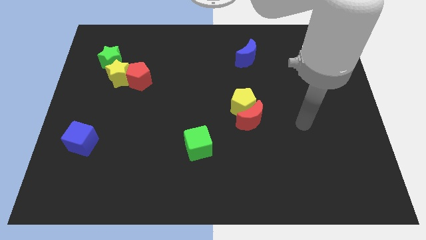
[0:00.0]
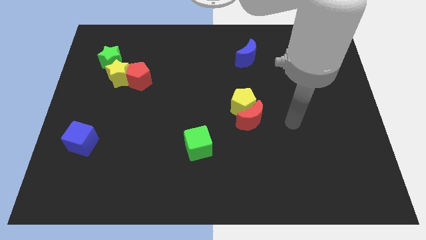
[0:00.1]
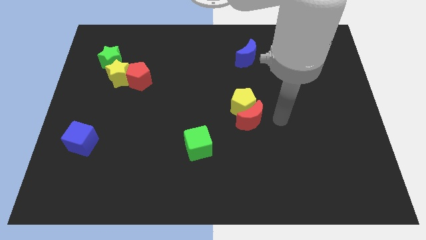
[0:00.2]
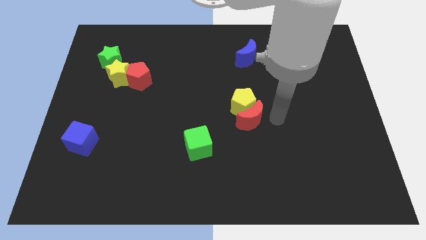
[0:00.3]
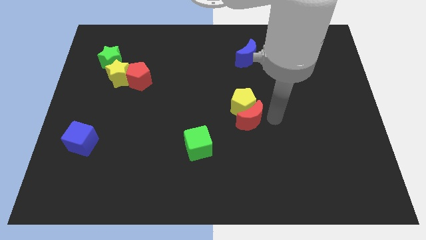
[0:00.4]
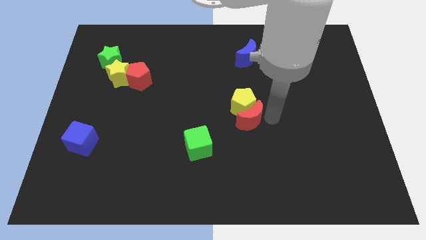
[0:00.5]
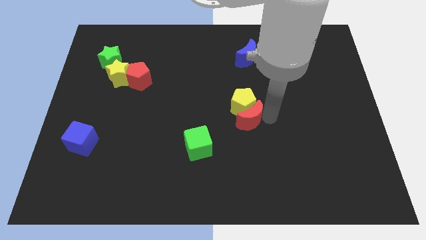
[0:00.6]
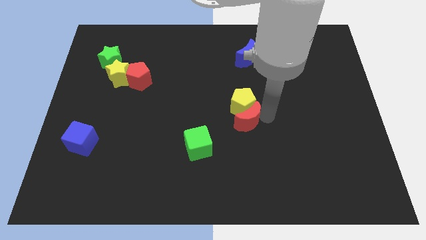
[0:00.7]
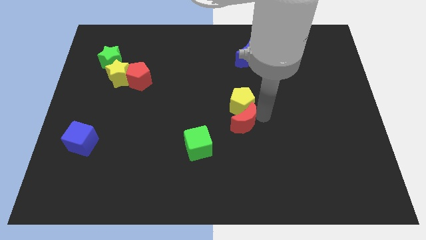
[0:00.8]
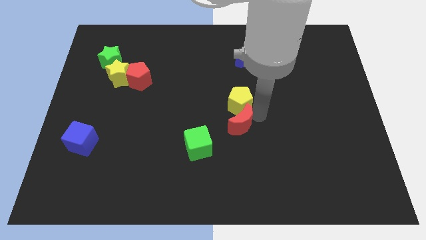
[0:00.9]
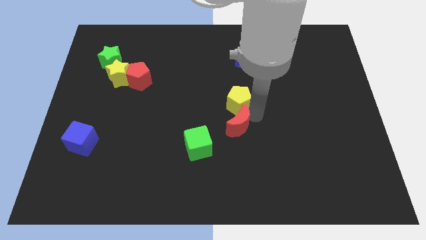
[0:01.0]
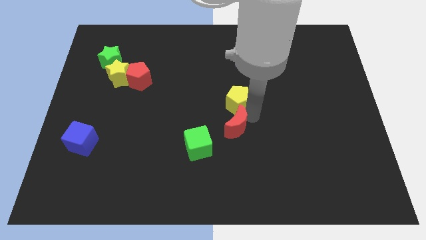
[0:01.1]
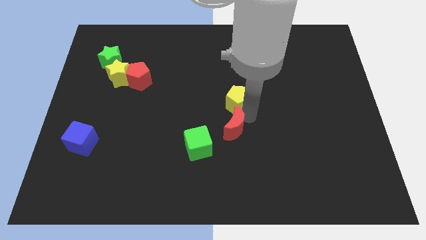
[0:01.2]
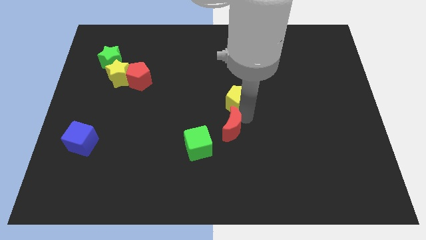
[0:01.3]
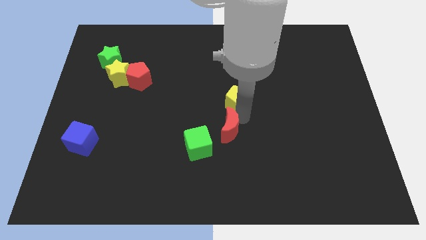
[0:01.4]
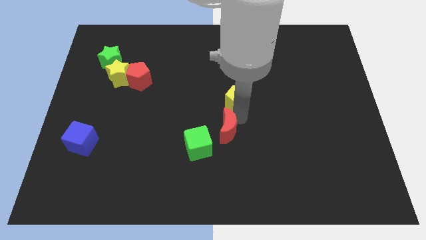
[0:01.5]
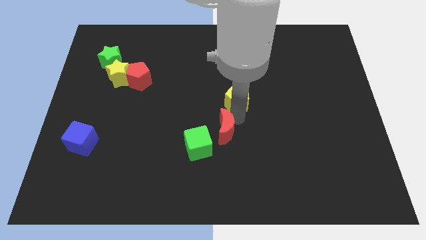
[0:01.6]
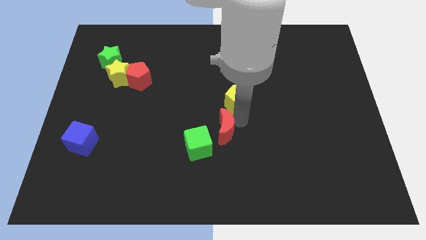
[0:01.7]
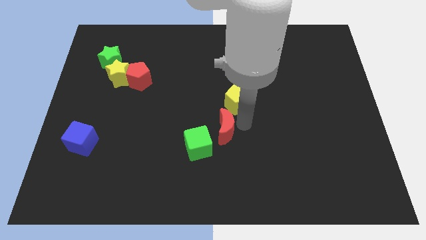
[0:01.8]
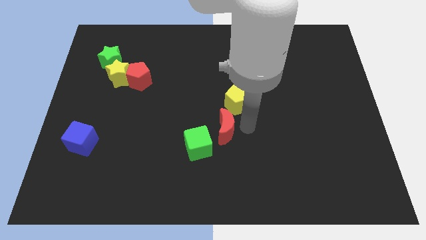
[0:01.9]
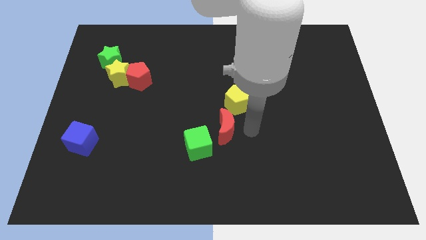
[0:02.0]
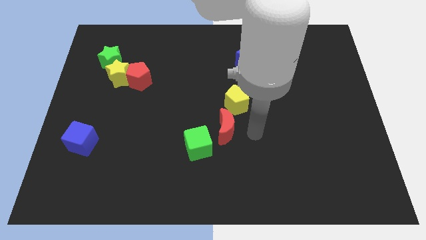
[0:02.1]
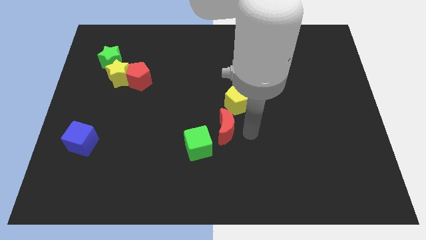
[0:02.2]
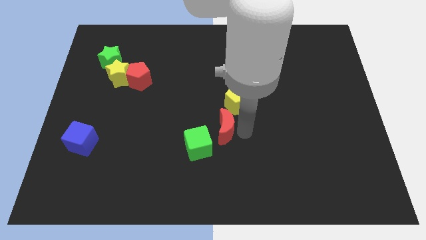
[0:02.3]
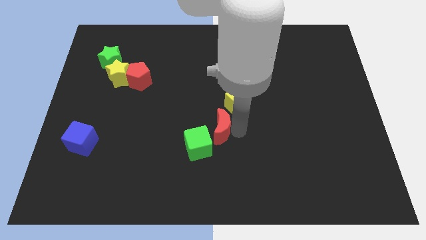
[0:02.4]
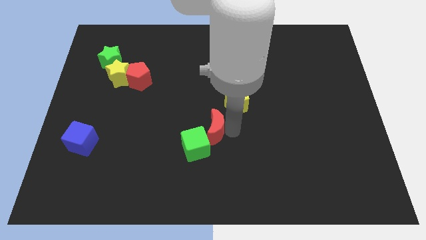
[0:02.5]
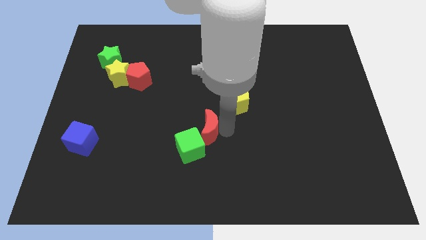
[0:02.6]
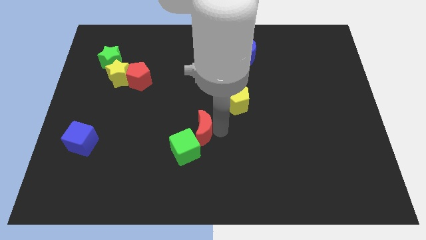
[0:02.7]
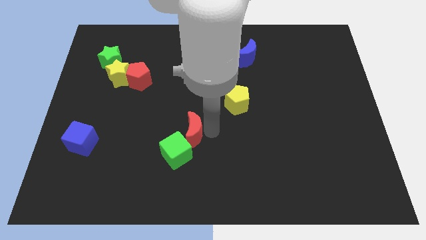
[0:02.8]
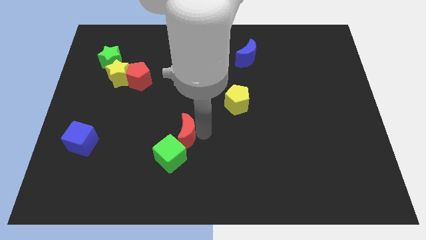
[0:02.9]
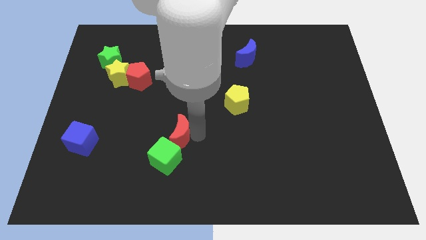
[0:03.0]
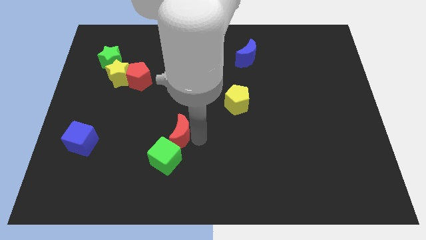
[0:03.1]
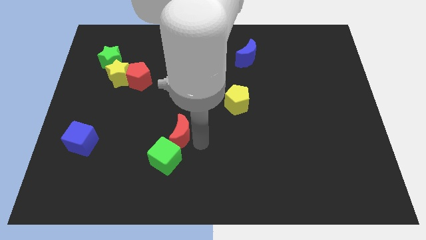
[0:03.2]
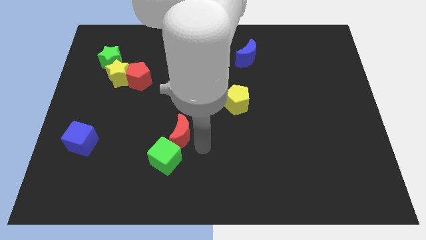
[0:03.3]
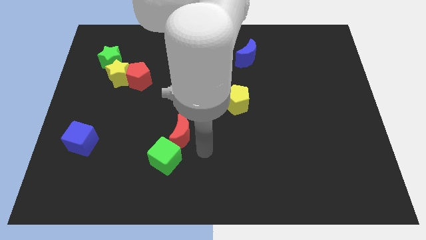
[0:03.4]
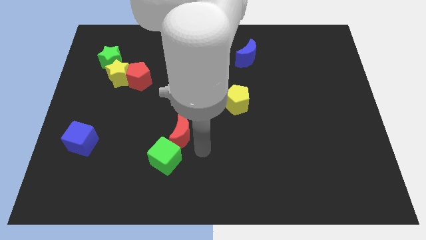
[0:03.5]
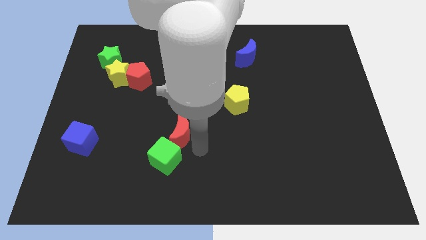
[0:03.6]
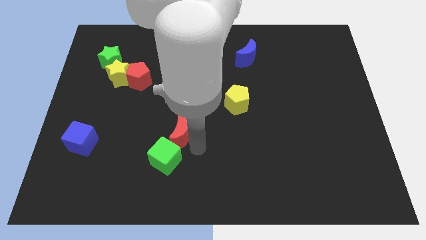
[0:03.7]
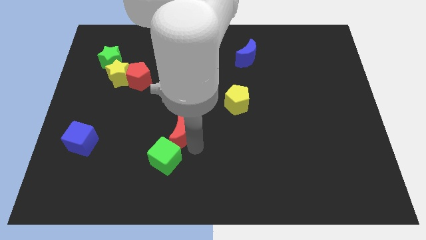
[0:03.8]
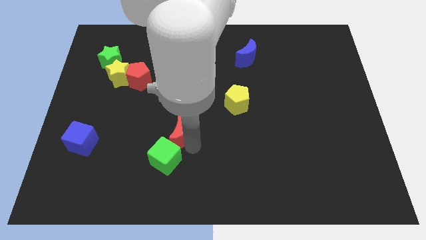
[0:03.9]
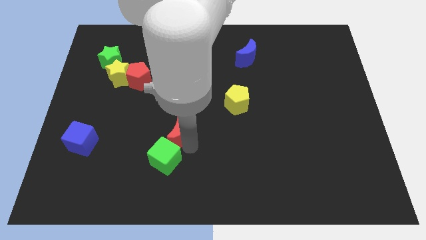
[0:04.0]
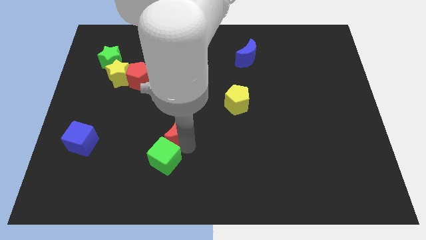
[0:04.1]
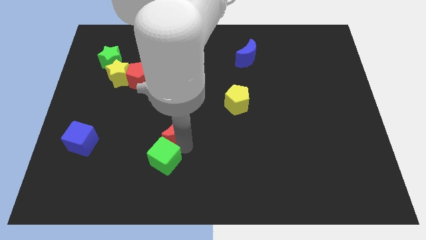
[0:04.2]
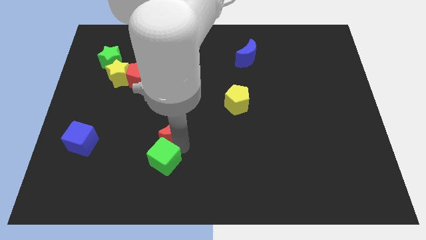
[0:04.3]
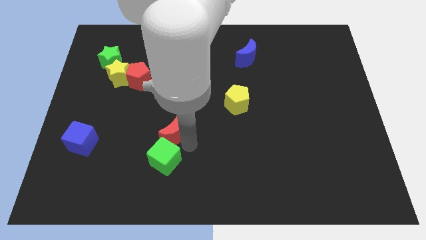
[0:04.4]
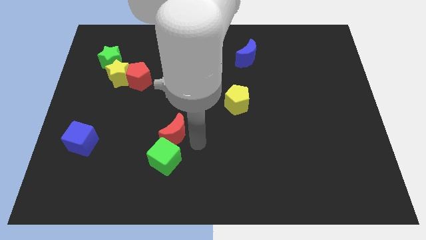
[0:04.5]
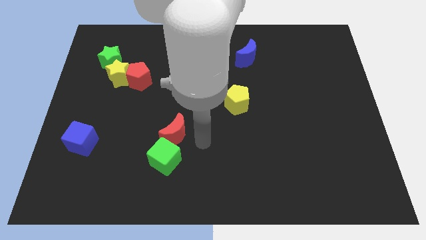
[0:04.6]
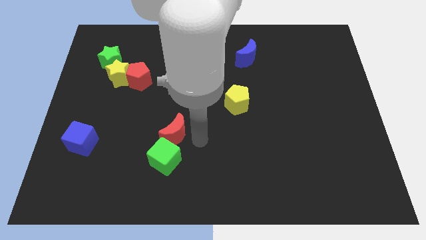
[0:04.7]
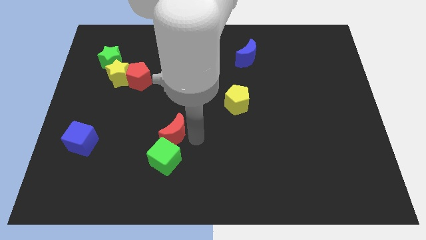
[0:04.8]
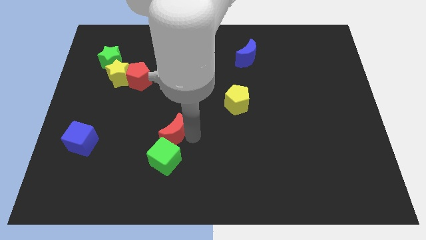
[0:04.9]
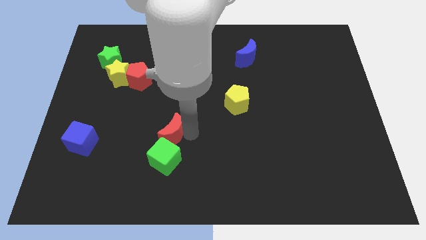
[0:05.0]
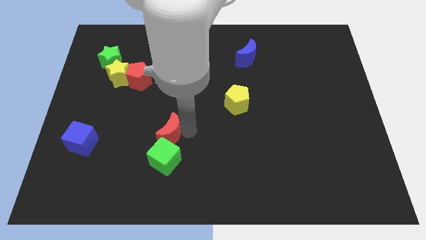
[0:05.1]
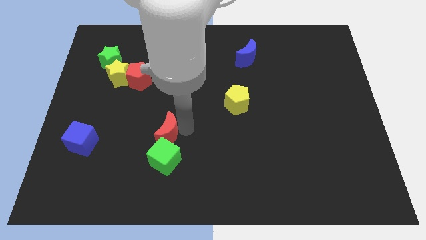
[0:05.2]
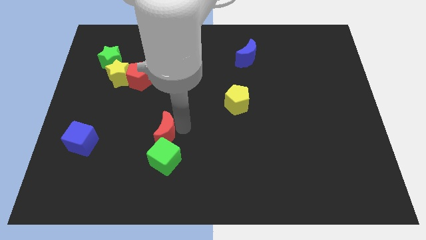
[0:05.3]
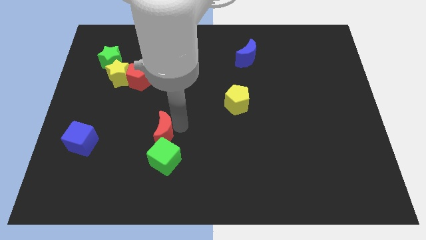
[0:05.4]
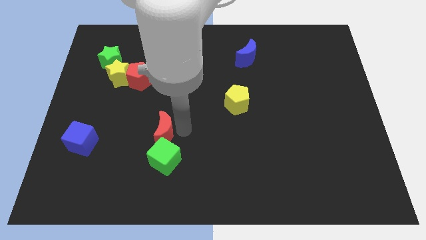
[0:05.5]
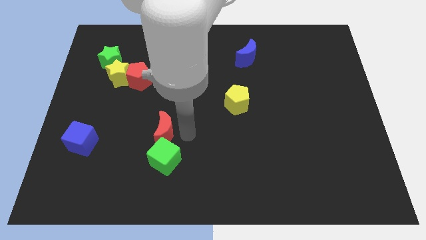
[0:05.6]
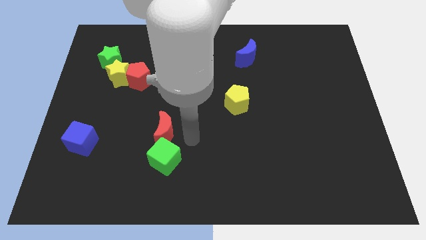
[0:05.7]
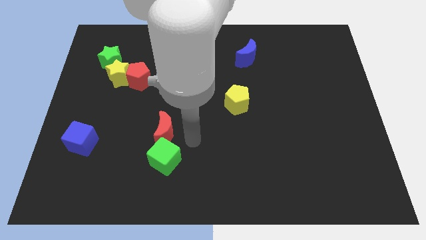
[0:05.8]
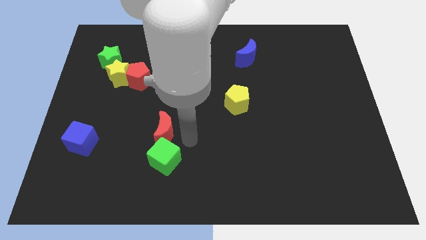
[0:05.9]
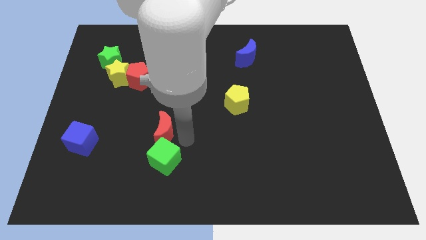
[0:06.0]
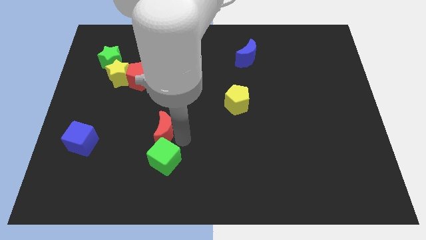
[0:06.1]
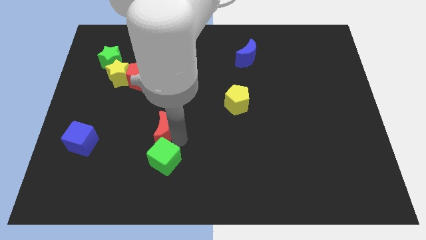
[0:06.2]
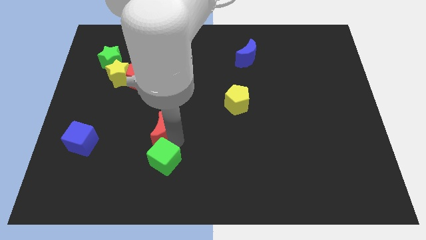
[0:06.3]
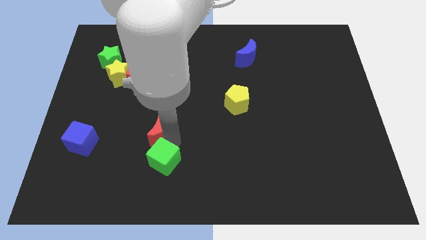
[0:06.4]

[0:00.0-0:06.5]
slide the red moon to the left

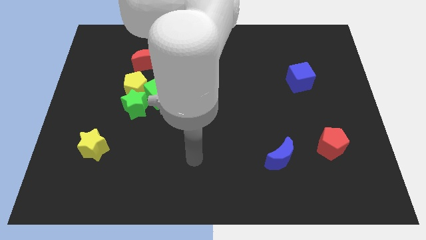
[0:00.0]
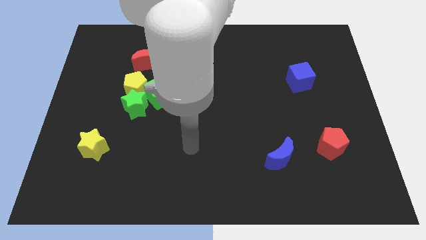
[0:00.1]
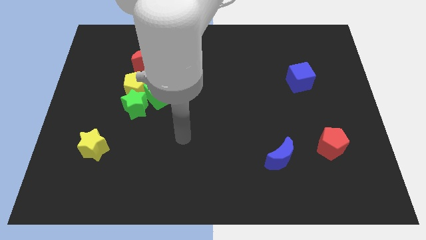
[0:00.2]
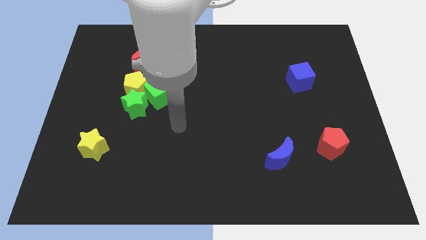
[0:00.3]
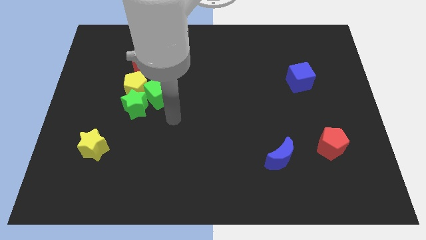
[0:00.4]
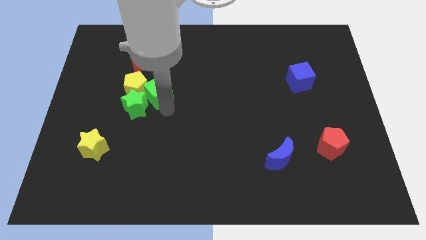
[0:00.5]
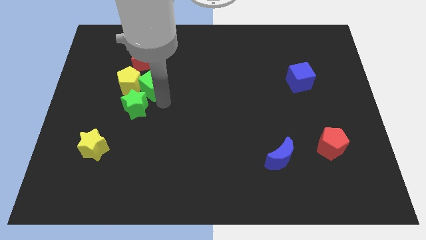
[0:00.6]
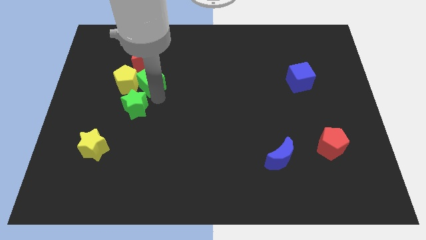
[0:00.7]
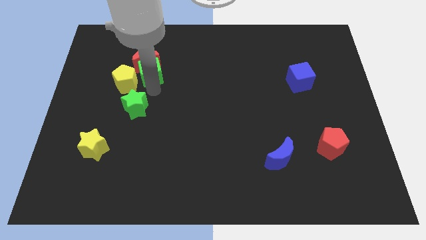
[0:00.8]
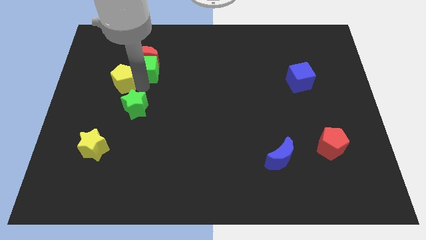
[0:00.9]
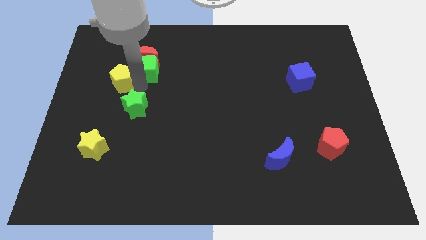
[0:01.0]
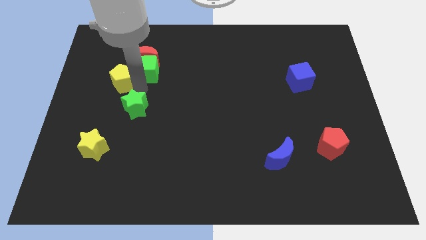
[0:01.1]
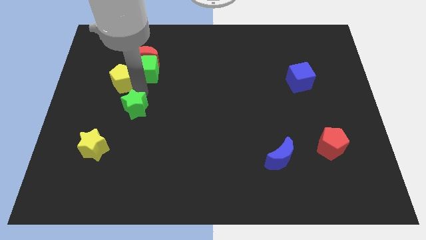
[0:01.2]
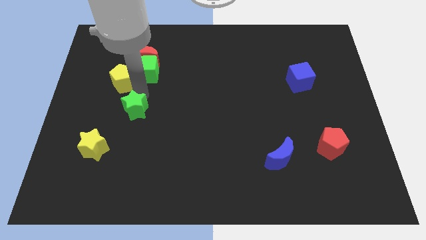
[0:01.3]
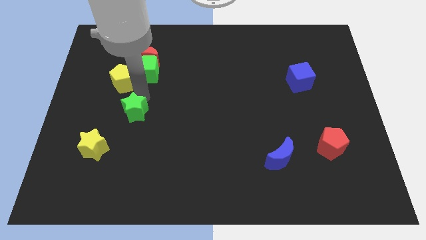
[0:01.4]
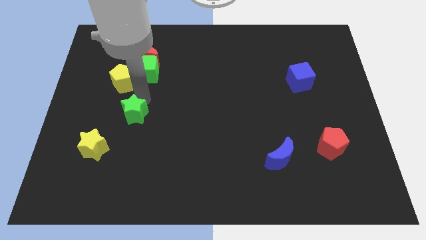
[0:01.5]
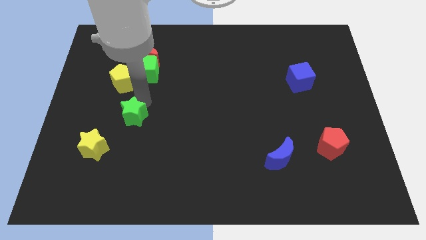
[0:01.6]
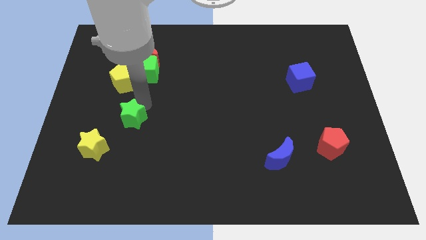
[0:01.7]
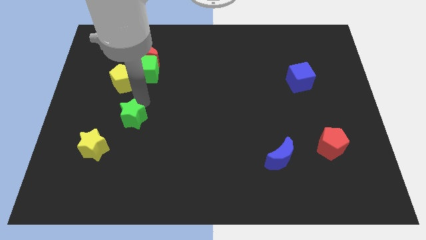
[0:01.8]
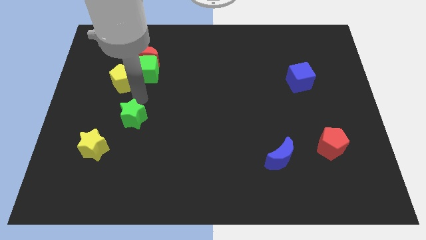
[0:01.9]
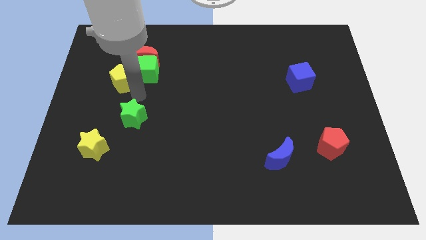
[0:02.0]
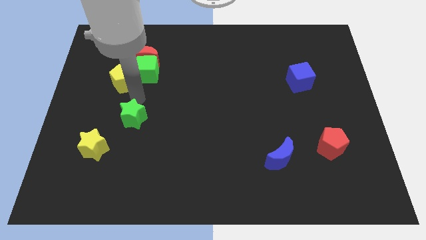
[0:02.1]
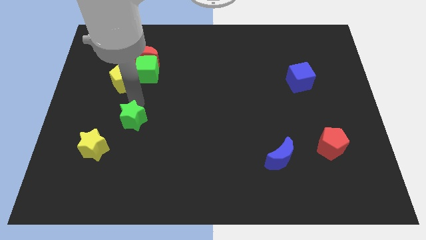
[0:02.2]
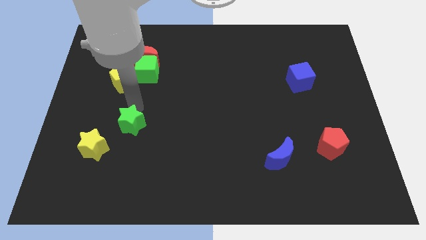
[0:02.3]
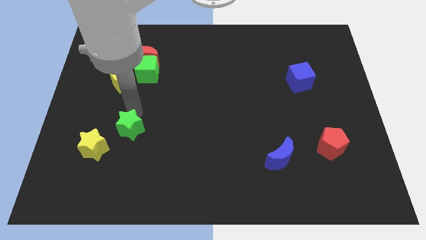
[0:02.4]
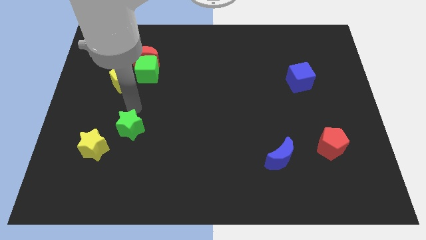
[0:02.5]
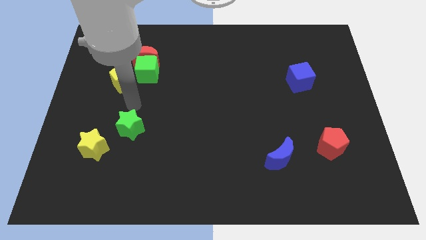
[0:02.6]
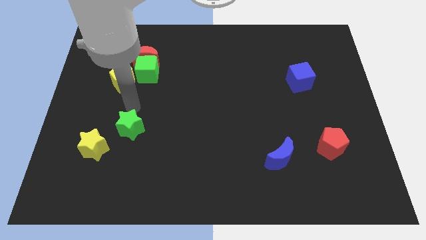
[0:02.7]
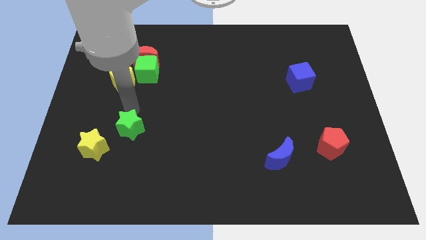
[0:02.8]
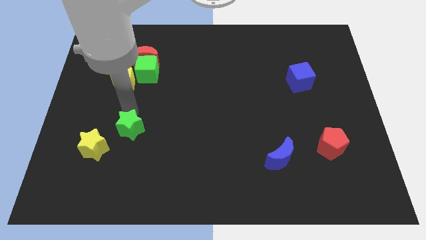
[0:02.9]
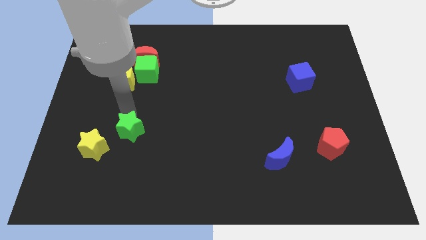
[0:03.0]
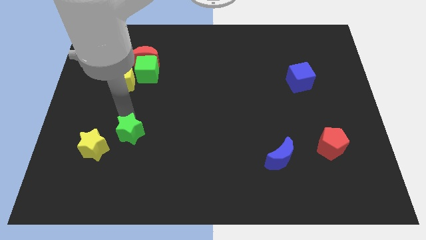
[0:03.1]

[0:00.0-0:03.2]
slide the green star down a bit
